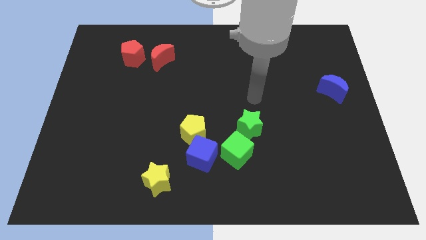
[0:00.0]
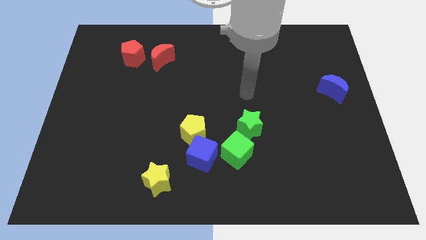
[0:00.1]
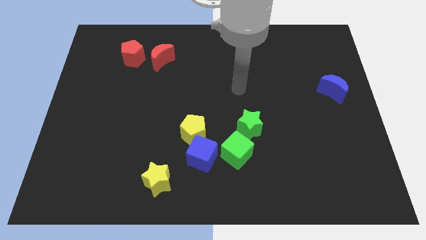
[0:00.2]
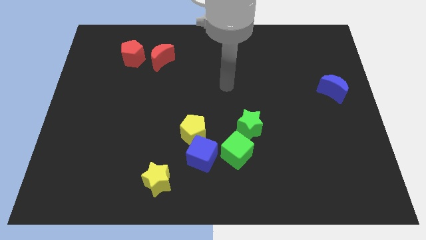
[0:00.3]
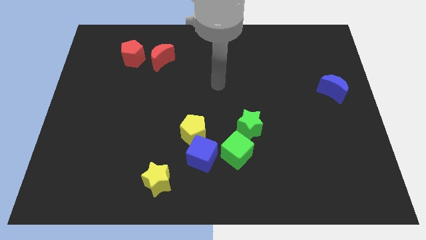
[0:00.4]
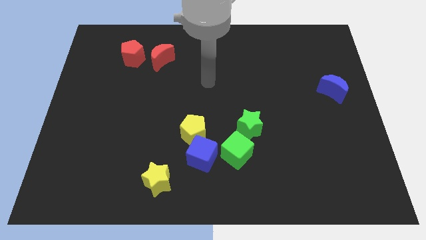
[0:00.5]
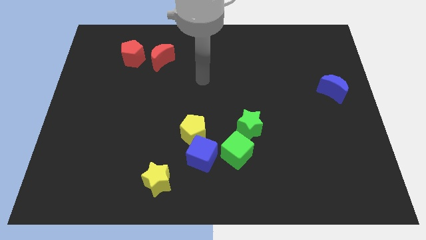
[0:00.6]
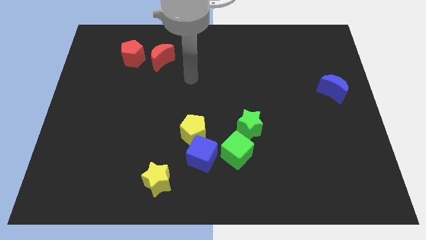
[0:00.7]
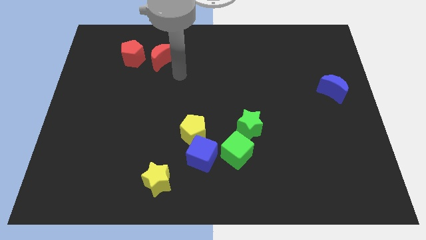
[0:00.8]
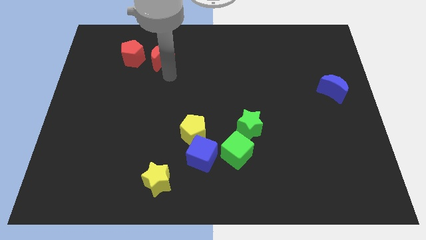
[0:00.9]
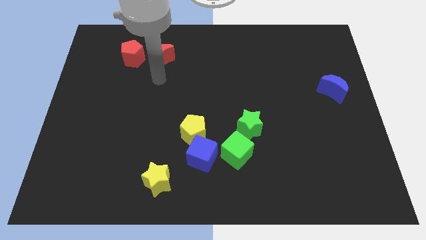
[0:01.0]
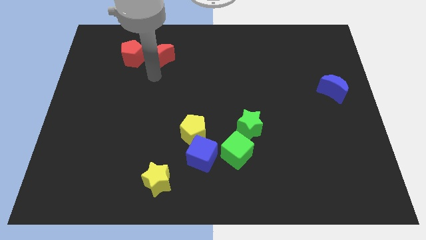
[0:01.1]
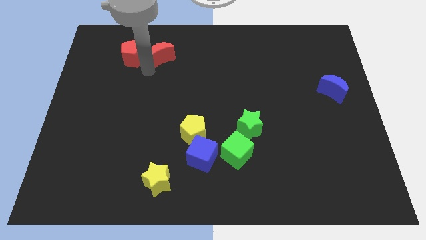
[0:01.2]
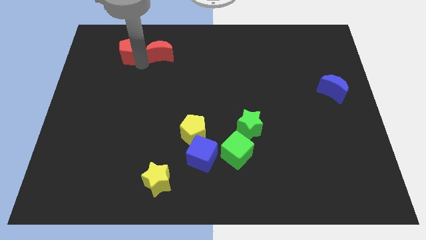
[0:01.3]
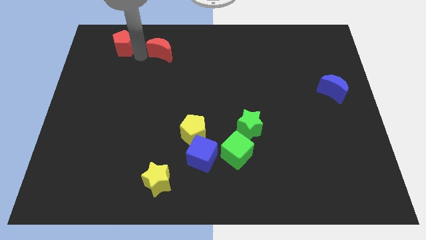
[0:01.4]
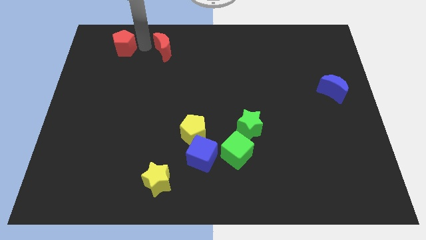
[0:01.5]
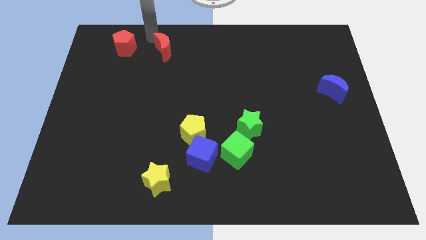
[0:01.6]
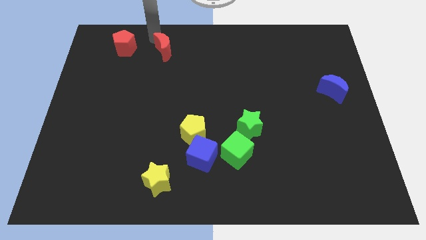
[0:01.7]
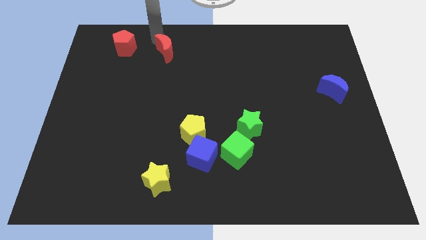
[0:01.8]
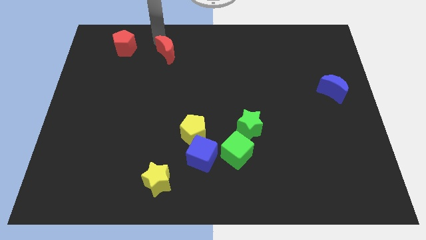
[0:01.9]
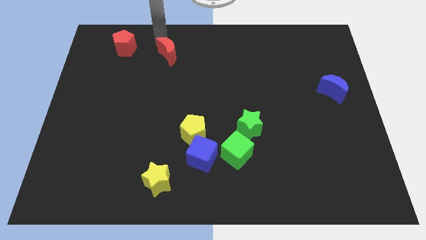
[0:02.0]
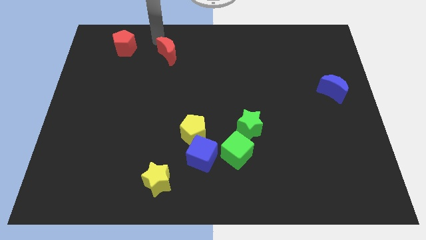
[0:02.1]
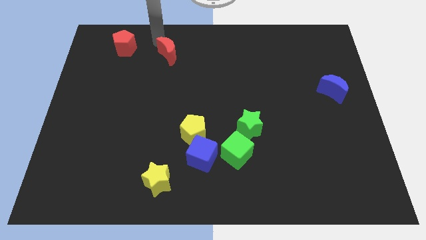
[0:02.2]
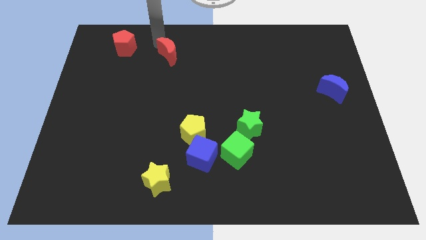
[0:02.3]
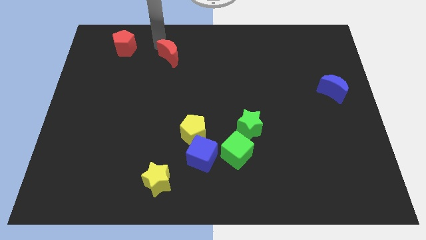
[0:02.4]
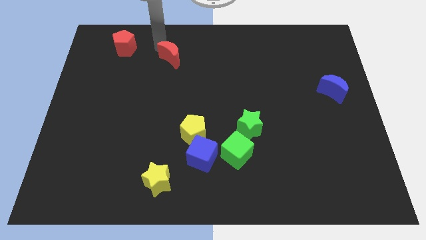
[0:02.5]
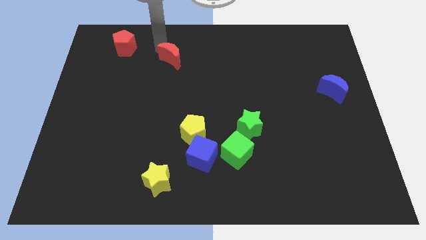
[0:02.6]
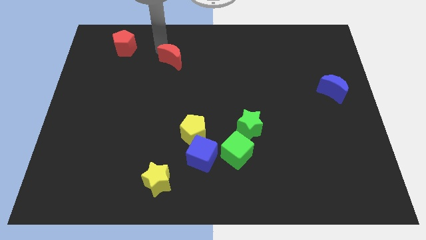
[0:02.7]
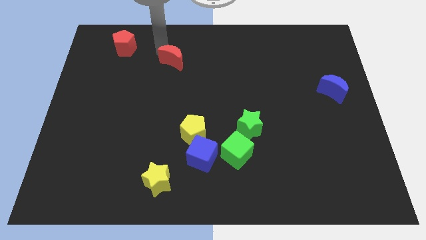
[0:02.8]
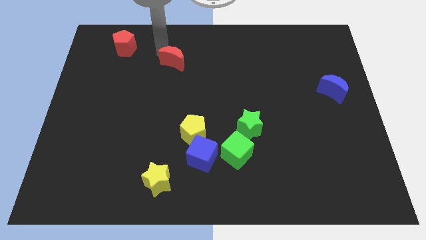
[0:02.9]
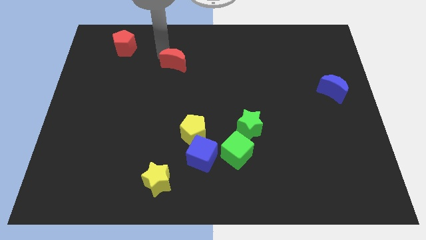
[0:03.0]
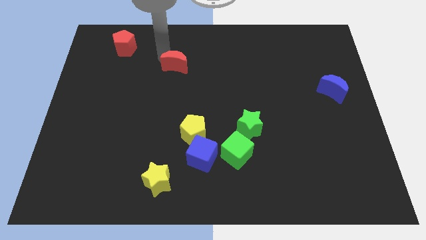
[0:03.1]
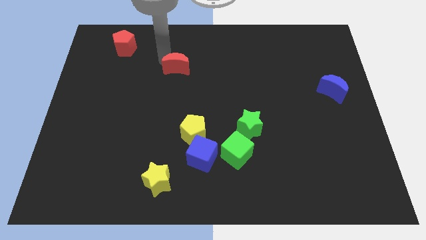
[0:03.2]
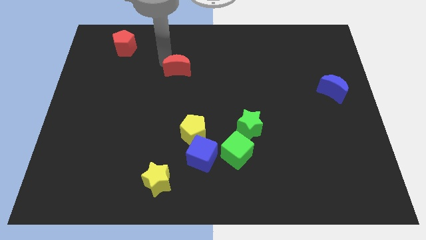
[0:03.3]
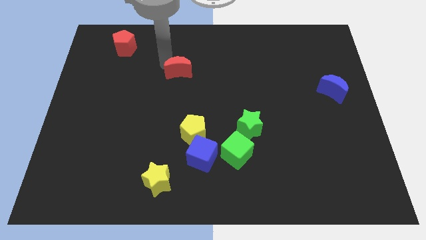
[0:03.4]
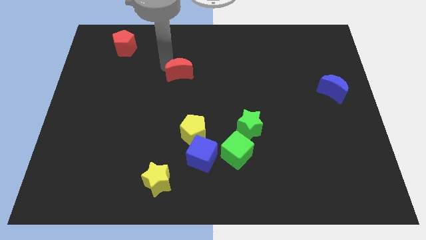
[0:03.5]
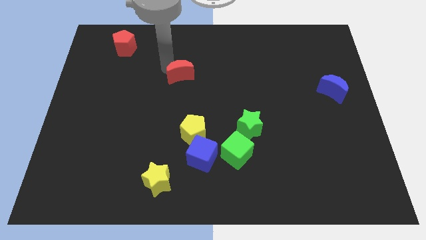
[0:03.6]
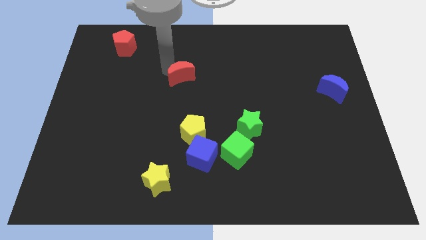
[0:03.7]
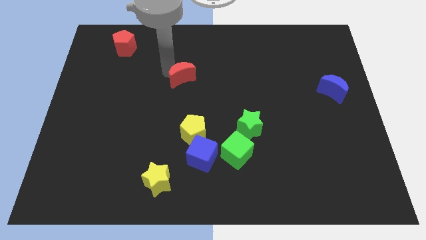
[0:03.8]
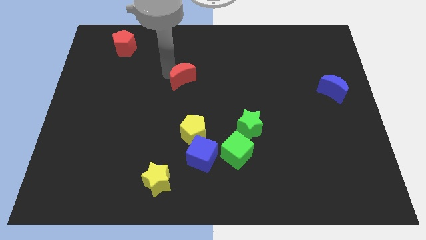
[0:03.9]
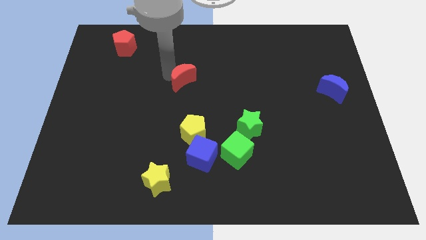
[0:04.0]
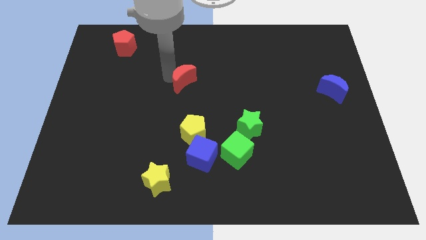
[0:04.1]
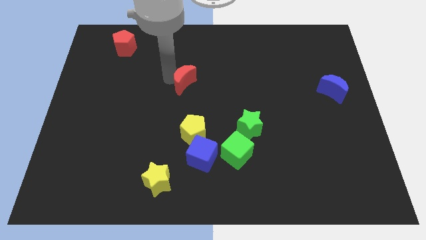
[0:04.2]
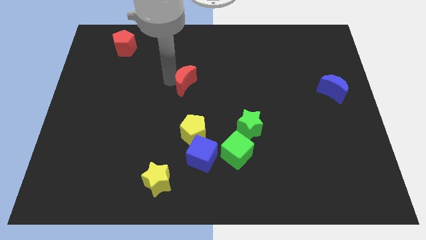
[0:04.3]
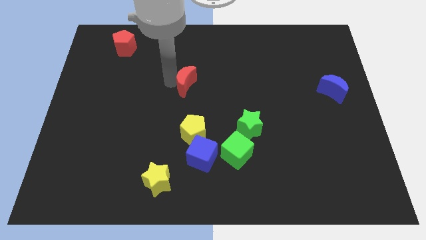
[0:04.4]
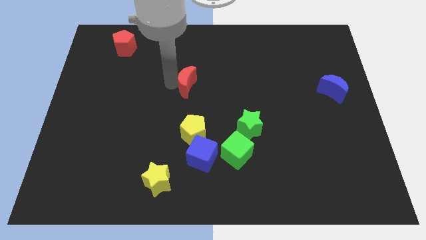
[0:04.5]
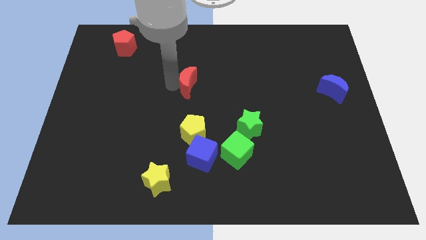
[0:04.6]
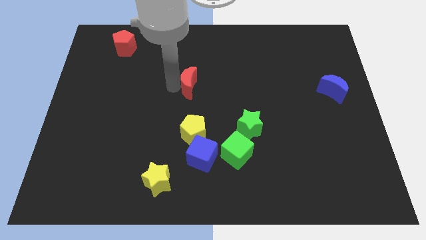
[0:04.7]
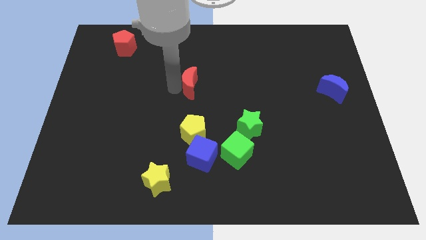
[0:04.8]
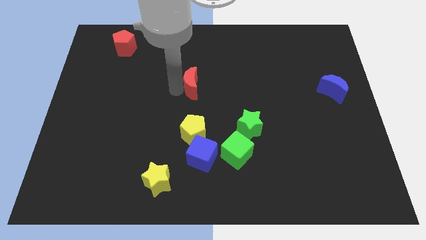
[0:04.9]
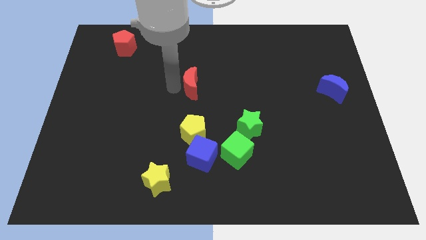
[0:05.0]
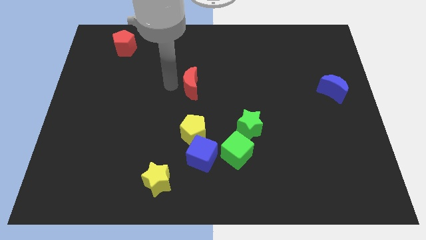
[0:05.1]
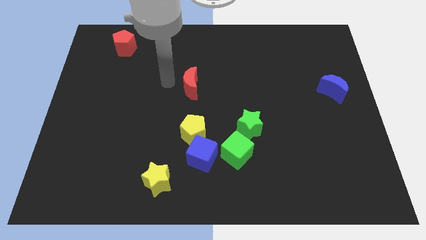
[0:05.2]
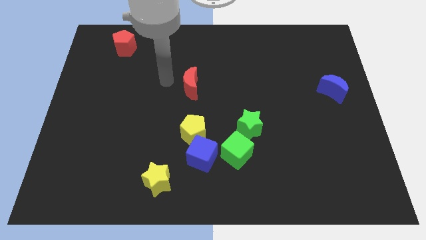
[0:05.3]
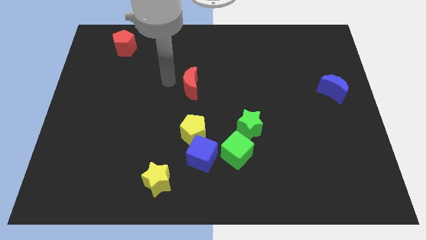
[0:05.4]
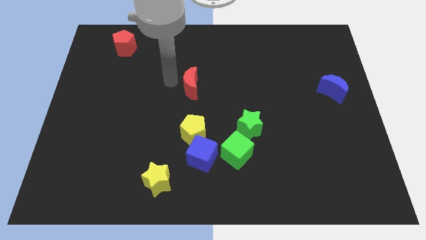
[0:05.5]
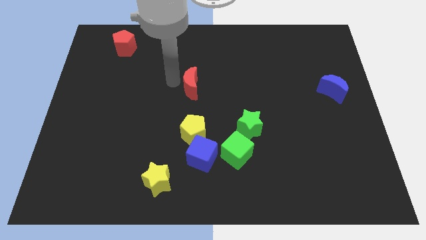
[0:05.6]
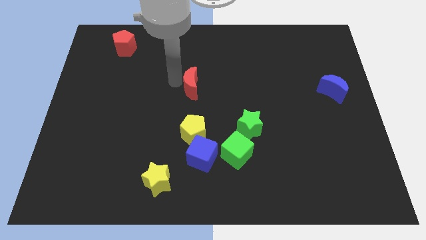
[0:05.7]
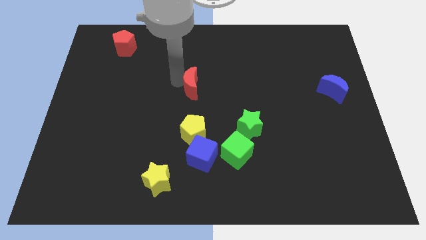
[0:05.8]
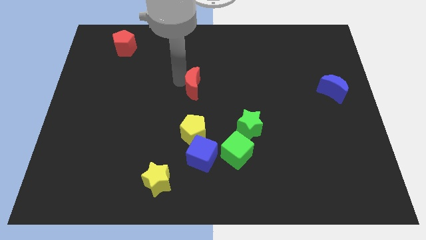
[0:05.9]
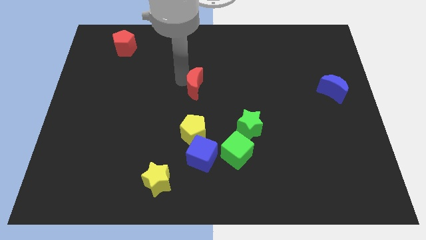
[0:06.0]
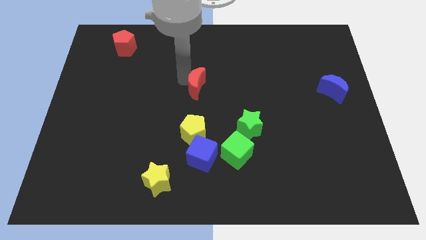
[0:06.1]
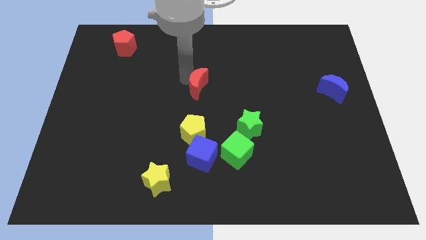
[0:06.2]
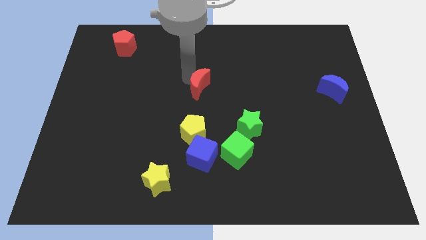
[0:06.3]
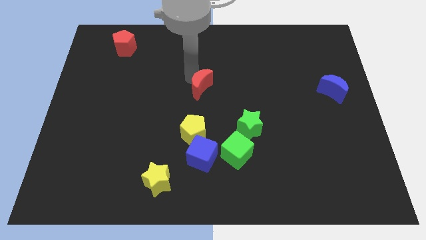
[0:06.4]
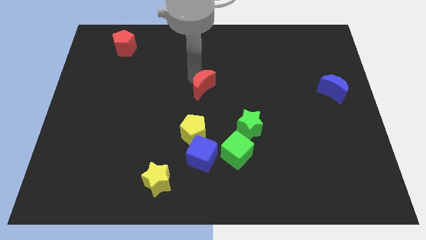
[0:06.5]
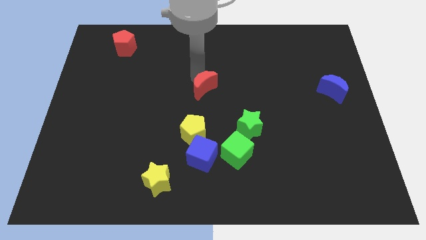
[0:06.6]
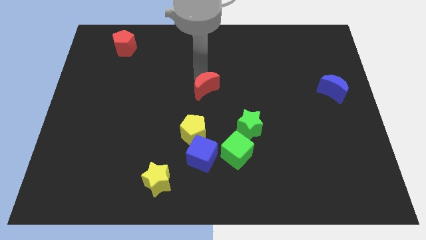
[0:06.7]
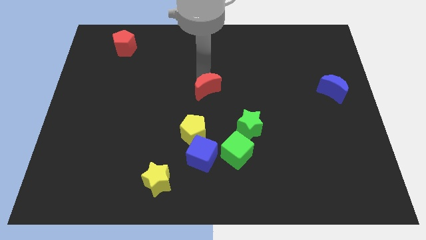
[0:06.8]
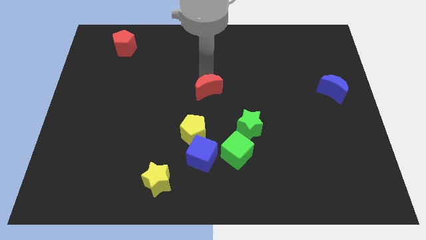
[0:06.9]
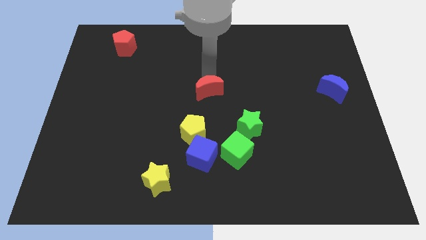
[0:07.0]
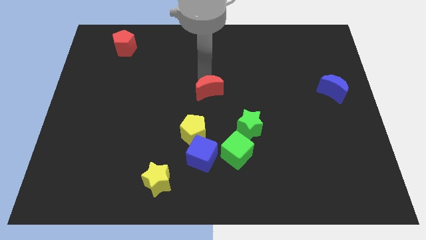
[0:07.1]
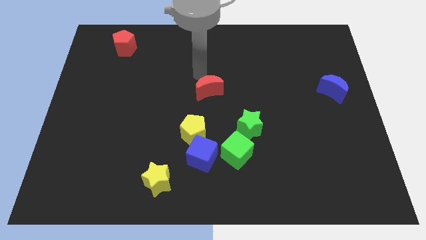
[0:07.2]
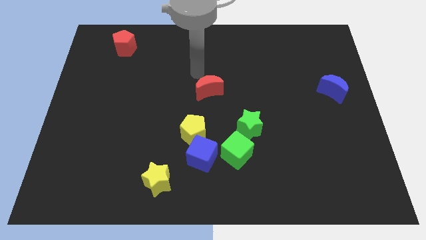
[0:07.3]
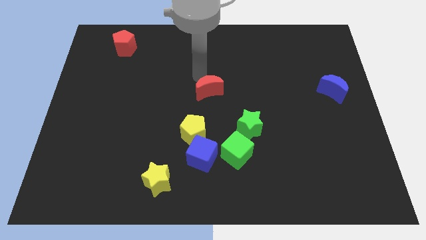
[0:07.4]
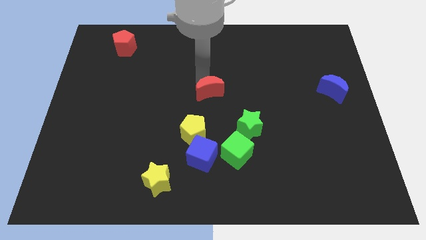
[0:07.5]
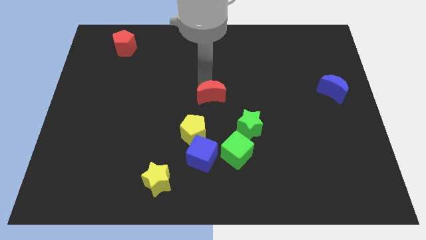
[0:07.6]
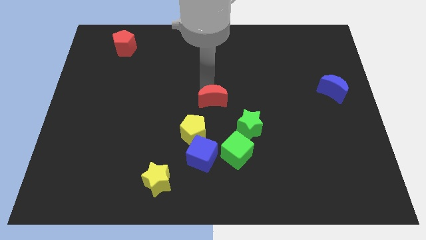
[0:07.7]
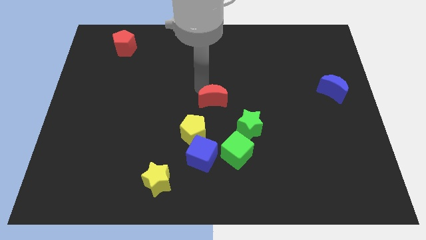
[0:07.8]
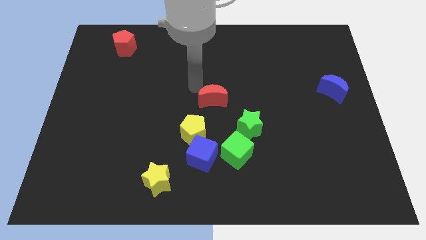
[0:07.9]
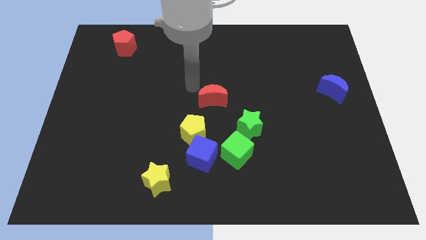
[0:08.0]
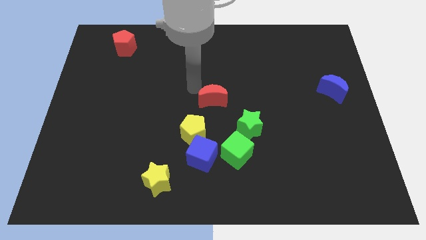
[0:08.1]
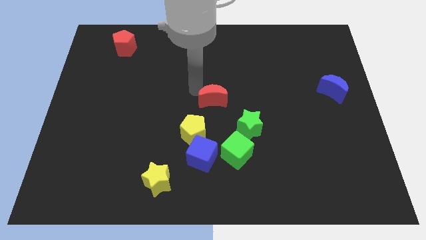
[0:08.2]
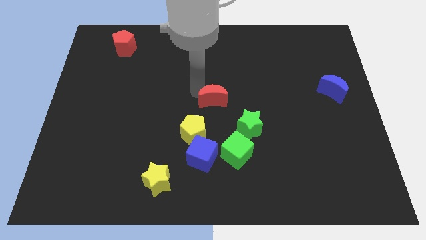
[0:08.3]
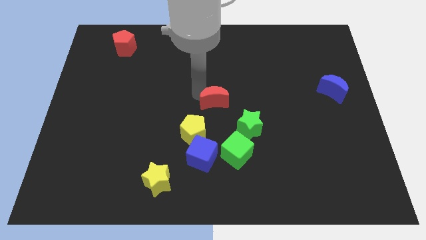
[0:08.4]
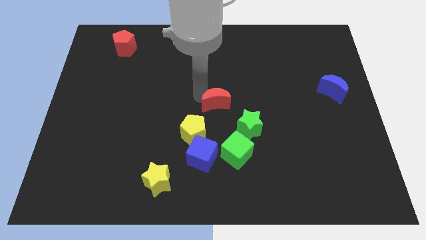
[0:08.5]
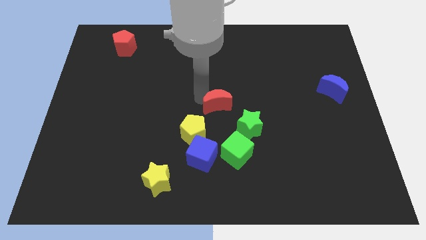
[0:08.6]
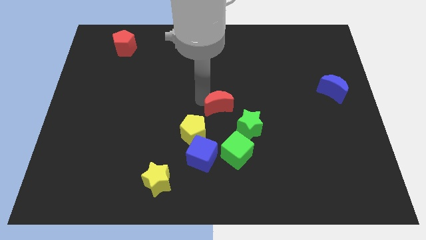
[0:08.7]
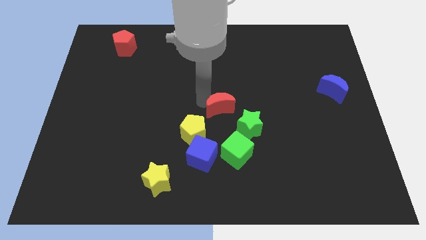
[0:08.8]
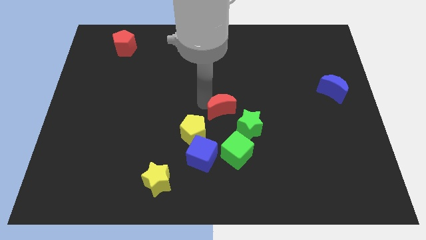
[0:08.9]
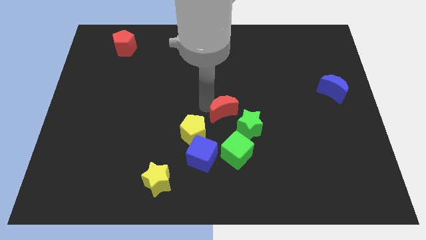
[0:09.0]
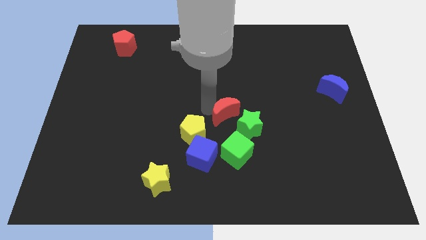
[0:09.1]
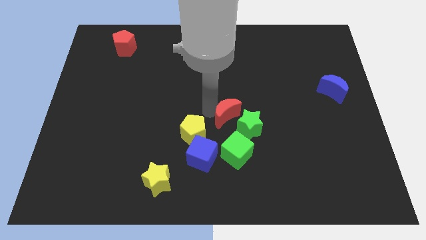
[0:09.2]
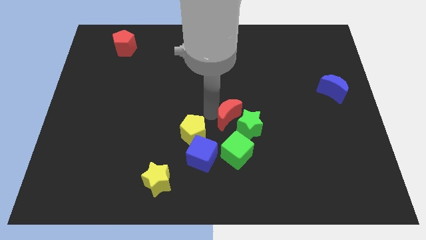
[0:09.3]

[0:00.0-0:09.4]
put the red moon to the green star
